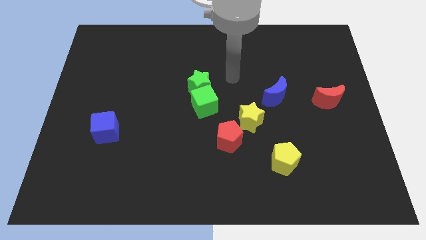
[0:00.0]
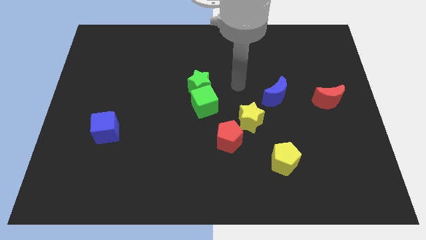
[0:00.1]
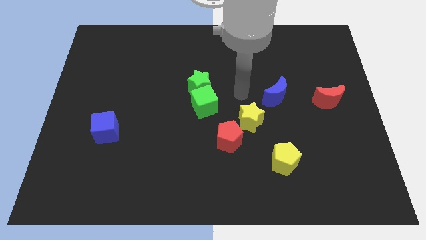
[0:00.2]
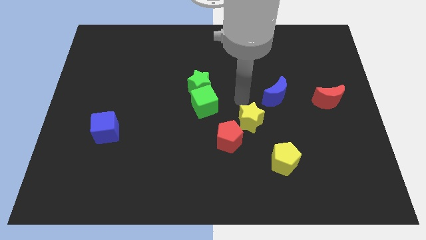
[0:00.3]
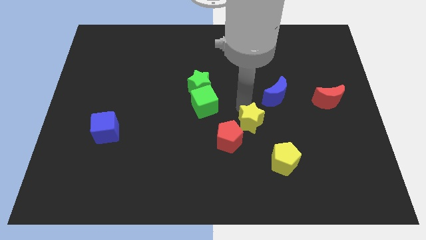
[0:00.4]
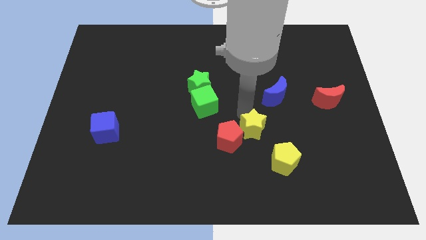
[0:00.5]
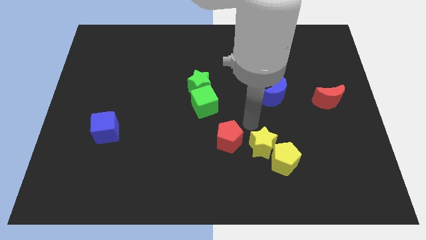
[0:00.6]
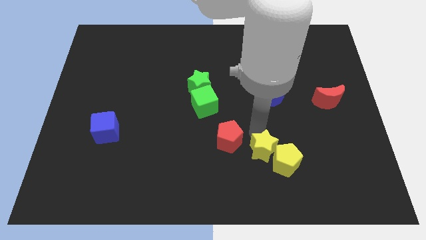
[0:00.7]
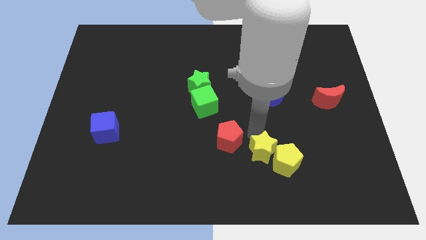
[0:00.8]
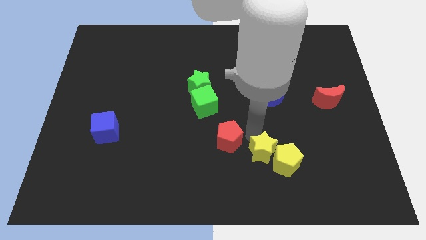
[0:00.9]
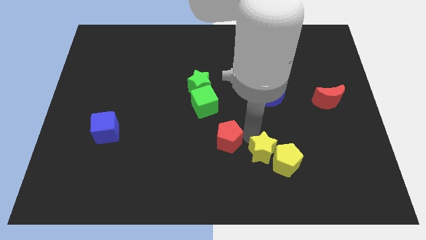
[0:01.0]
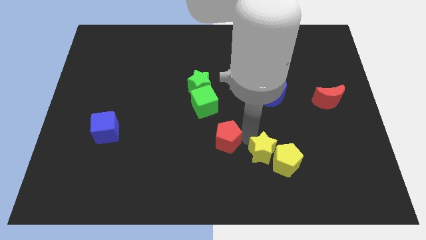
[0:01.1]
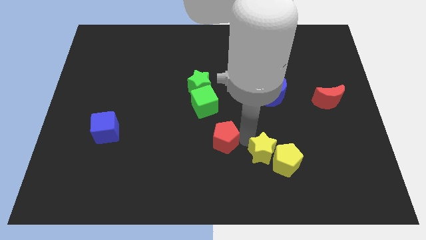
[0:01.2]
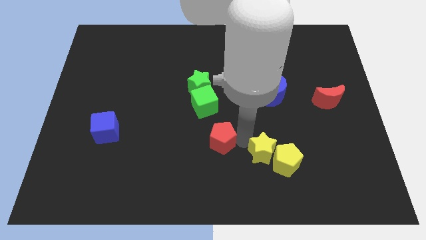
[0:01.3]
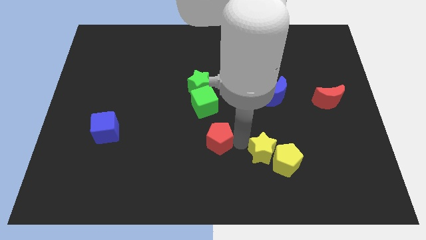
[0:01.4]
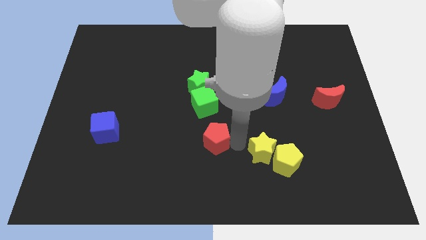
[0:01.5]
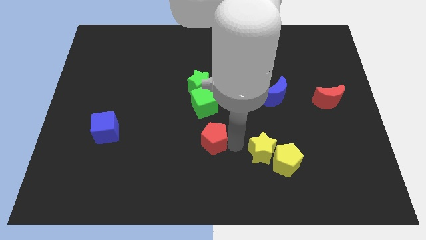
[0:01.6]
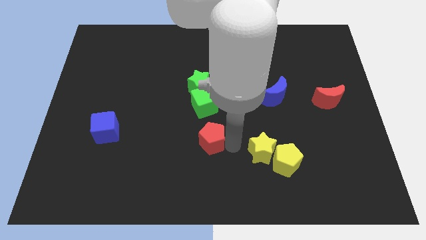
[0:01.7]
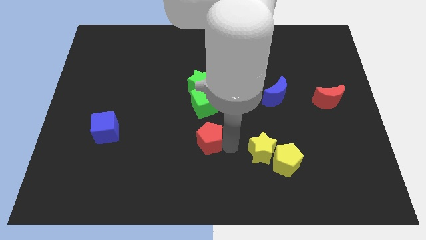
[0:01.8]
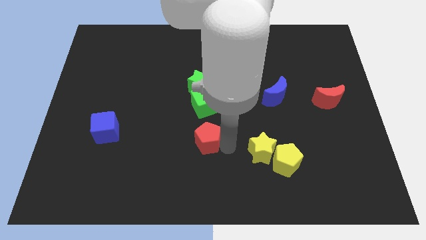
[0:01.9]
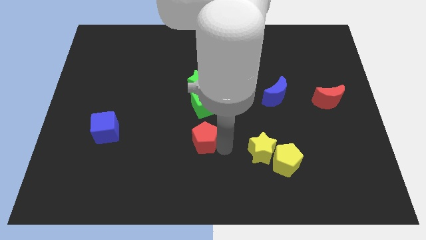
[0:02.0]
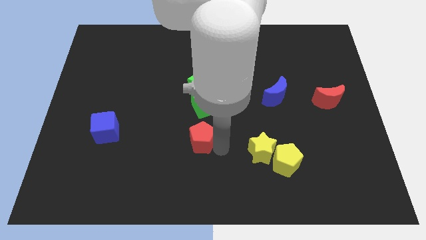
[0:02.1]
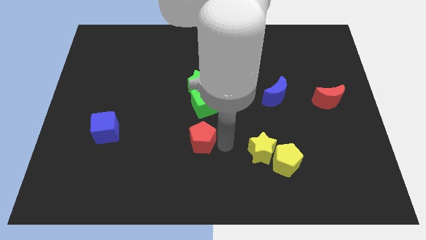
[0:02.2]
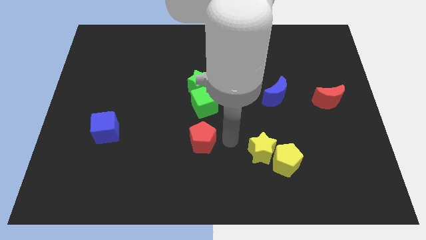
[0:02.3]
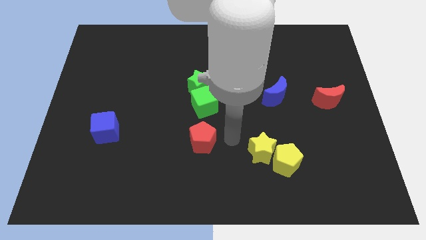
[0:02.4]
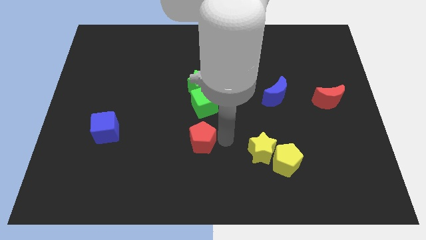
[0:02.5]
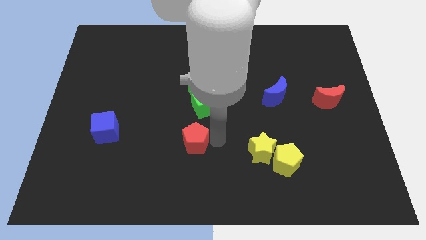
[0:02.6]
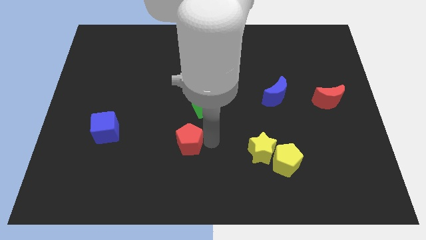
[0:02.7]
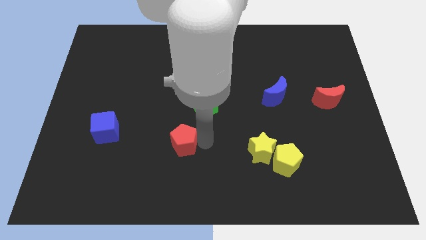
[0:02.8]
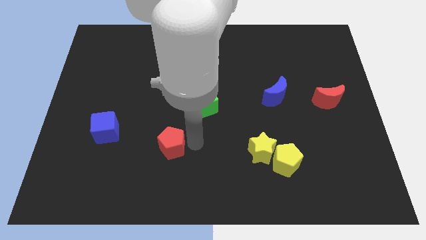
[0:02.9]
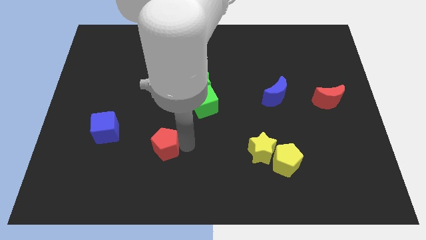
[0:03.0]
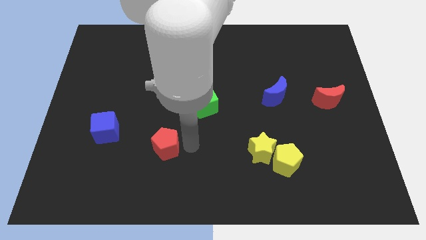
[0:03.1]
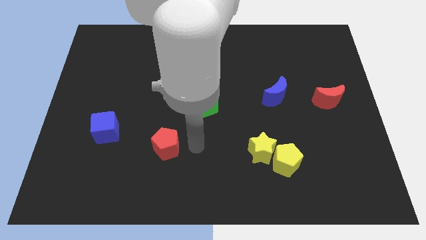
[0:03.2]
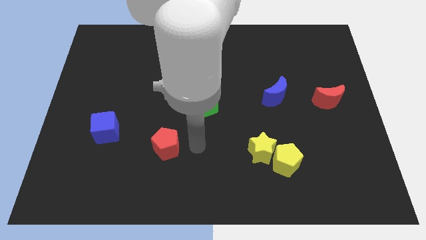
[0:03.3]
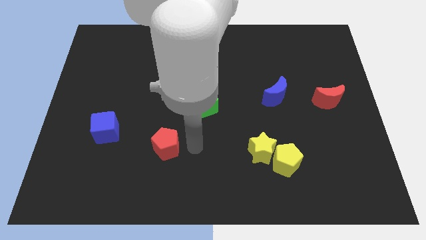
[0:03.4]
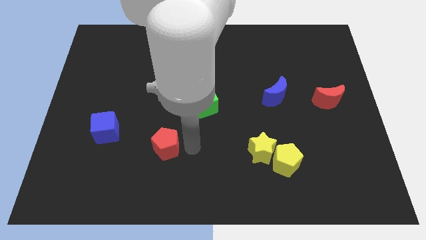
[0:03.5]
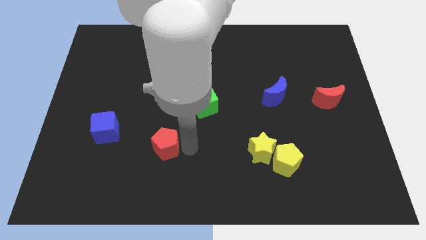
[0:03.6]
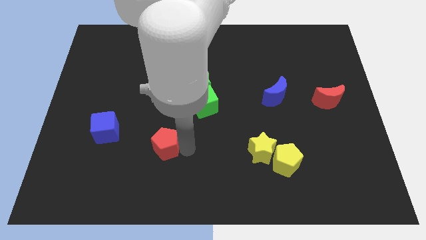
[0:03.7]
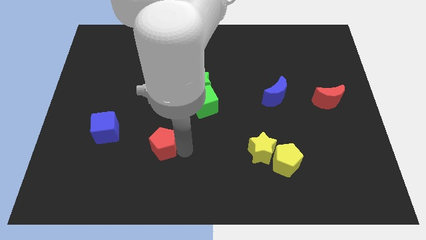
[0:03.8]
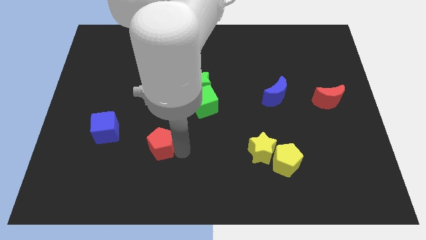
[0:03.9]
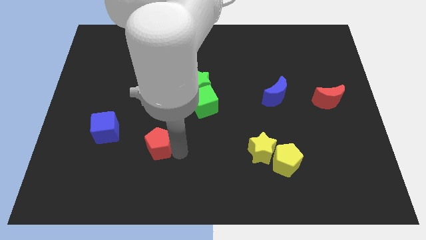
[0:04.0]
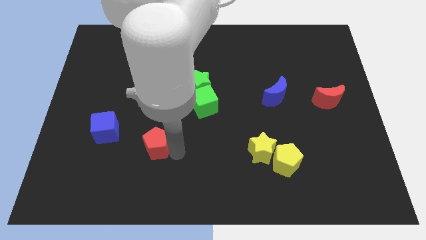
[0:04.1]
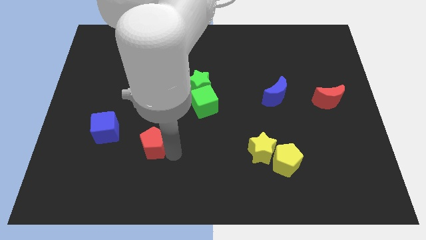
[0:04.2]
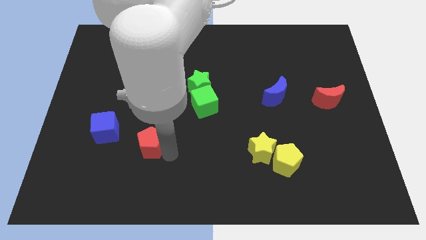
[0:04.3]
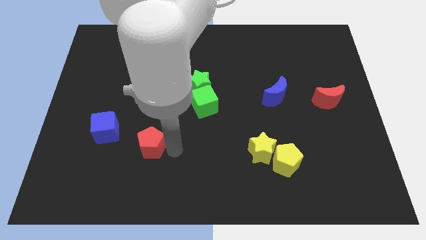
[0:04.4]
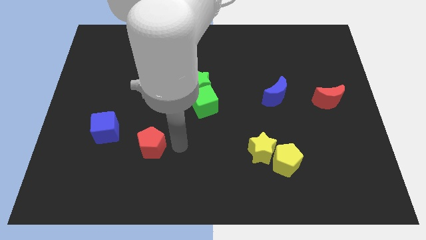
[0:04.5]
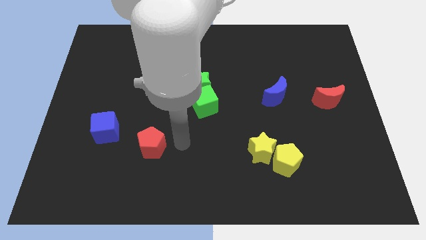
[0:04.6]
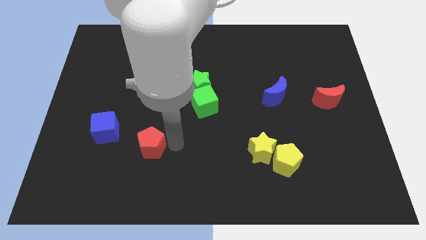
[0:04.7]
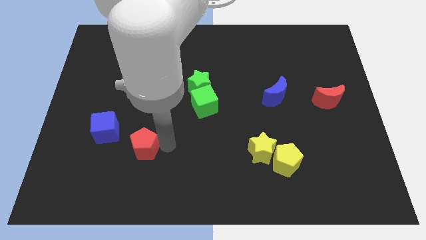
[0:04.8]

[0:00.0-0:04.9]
push the red pentagon to the bottom right of the blue cube

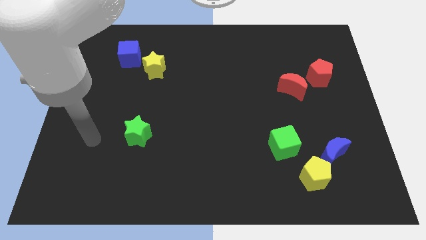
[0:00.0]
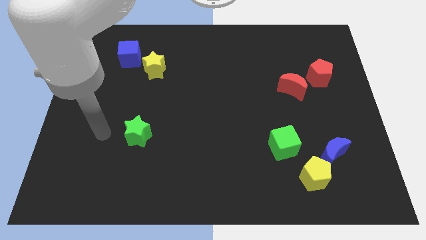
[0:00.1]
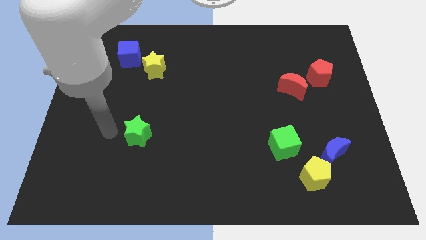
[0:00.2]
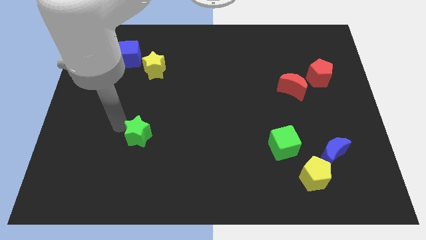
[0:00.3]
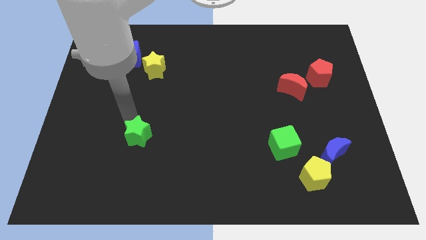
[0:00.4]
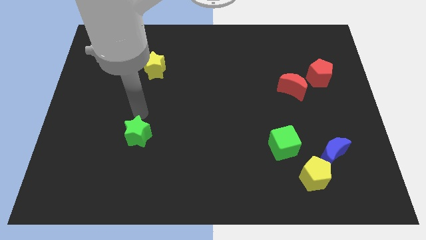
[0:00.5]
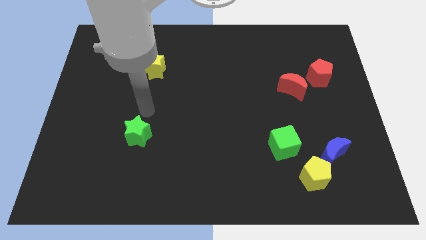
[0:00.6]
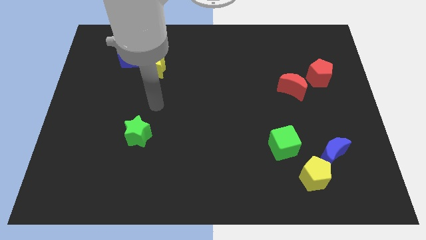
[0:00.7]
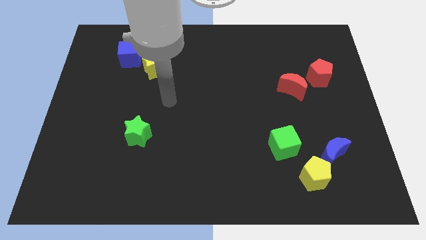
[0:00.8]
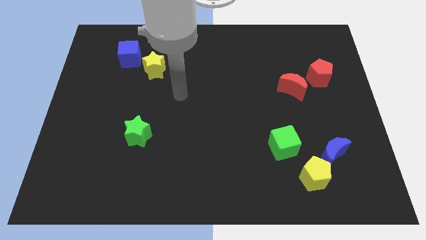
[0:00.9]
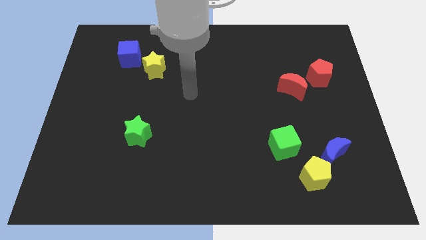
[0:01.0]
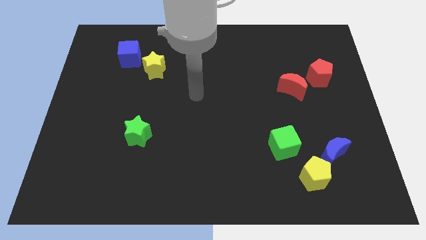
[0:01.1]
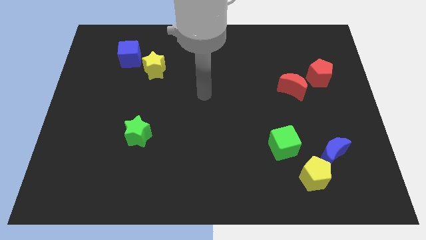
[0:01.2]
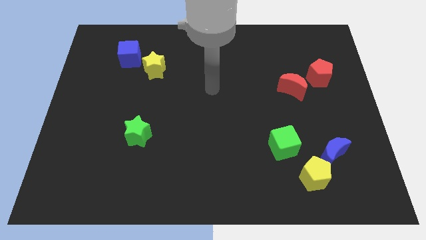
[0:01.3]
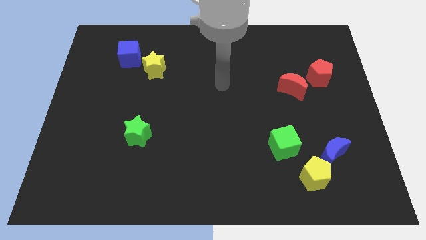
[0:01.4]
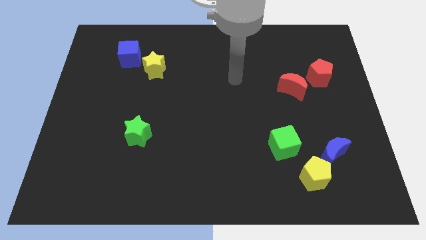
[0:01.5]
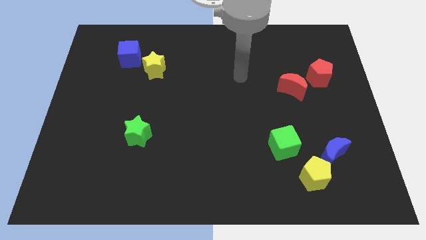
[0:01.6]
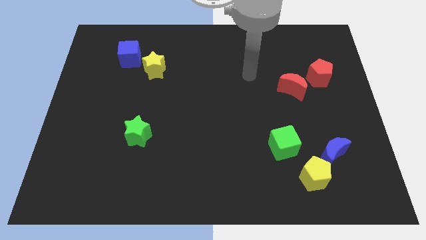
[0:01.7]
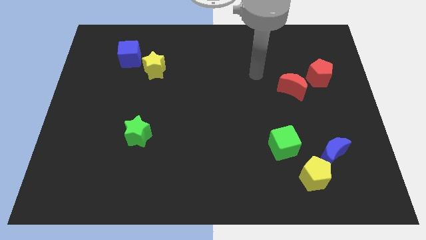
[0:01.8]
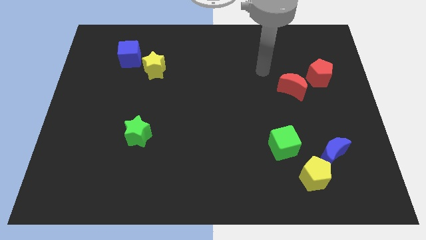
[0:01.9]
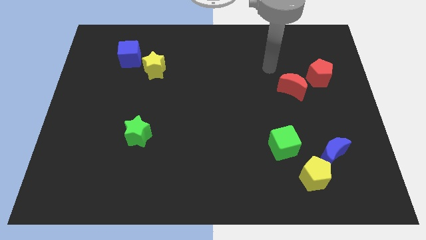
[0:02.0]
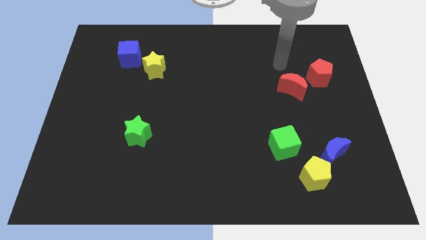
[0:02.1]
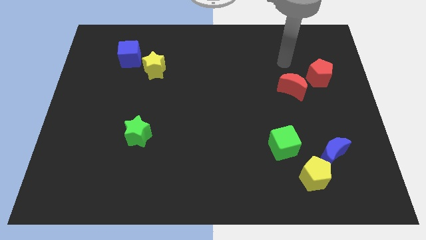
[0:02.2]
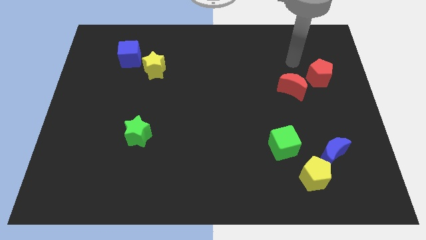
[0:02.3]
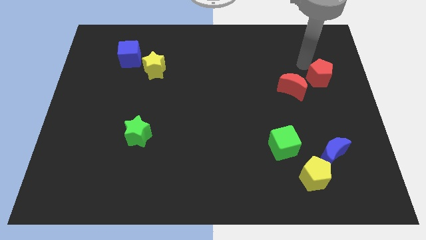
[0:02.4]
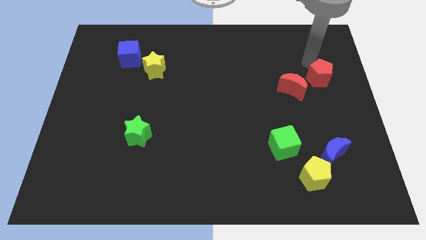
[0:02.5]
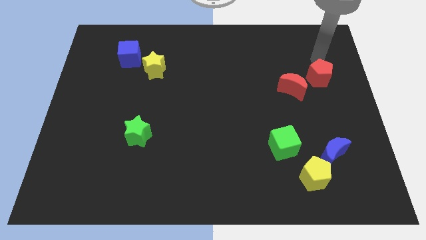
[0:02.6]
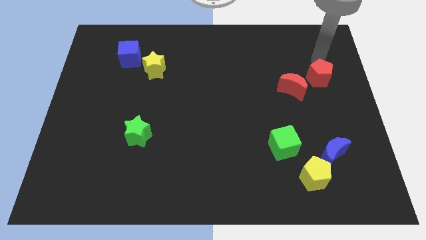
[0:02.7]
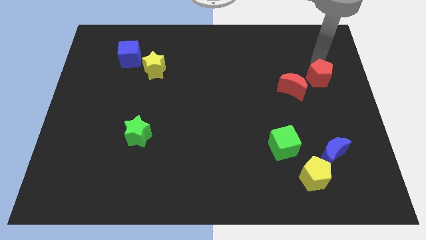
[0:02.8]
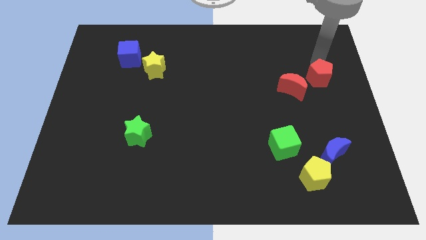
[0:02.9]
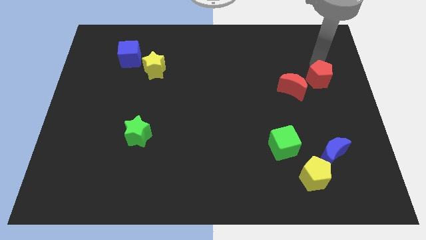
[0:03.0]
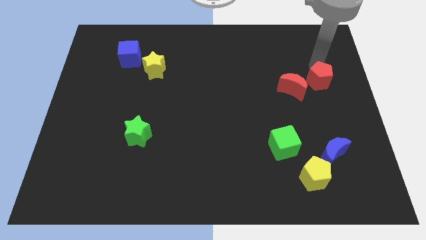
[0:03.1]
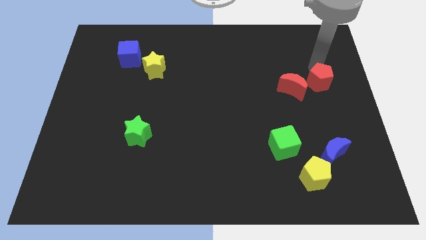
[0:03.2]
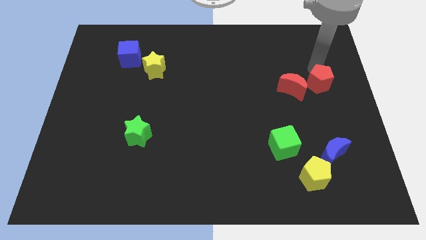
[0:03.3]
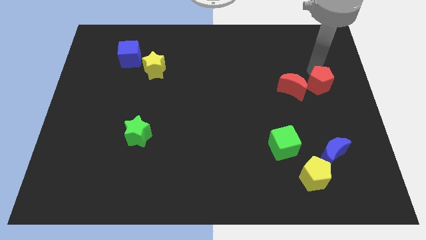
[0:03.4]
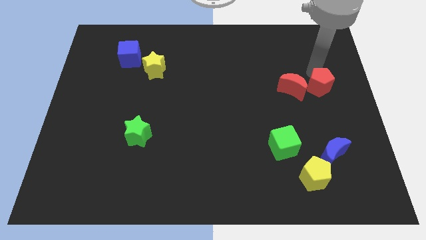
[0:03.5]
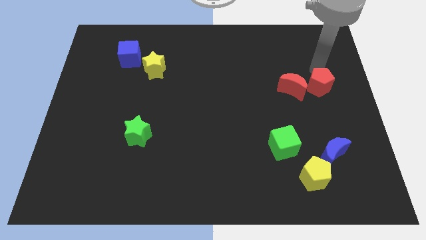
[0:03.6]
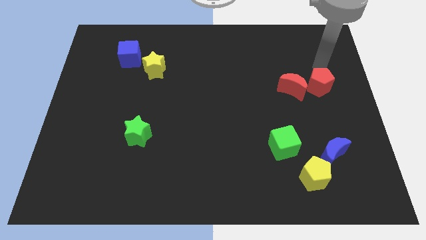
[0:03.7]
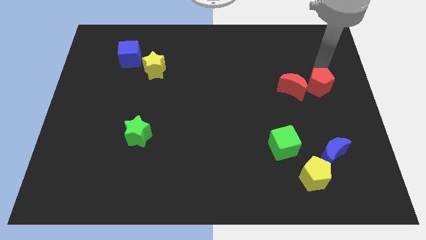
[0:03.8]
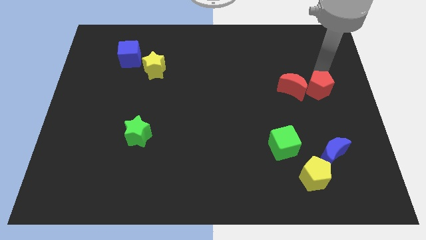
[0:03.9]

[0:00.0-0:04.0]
move the red pentagon diagonally down and to the right of the red moon
